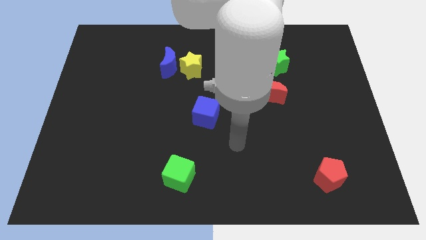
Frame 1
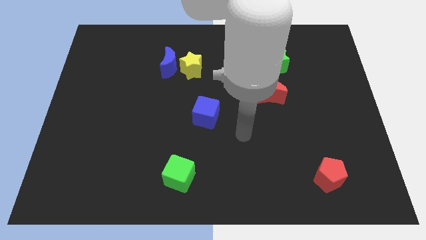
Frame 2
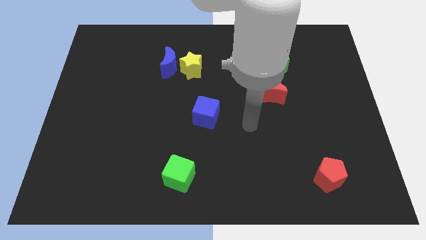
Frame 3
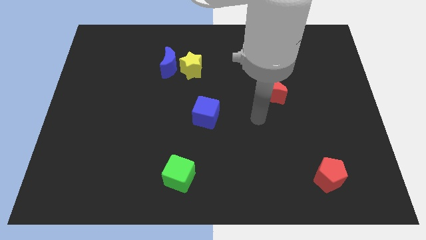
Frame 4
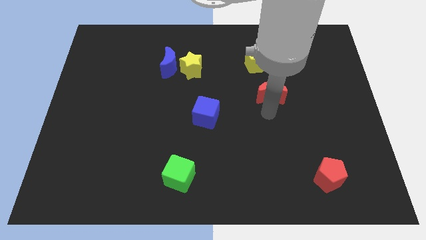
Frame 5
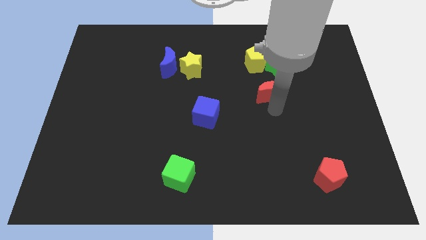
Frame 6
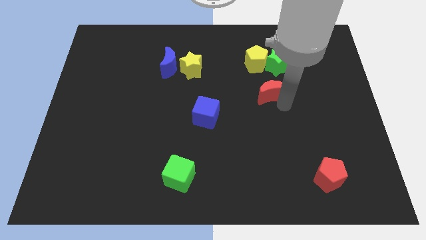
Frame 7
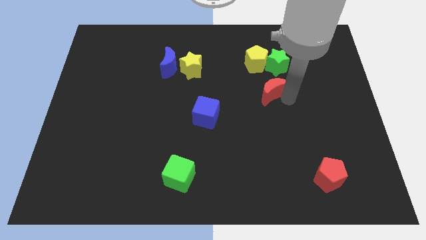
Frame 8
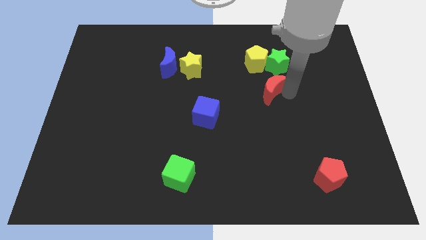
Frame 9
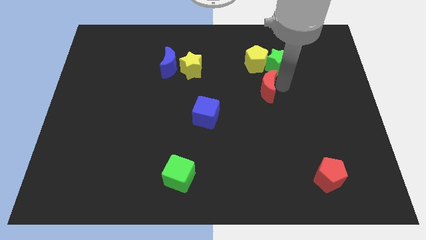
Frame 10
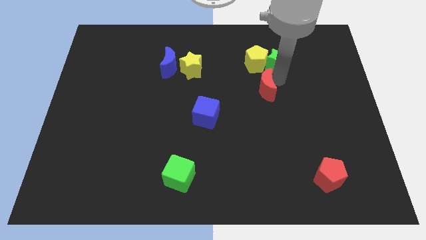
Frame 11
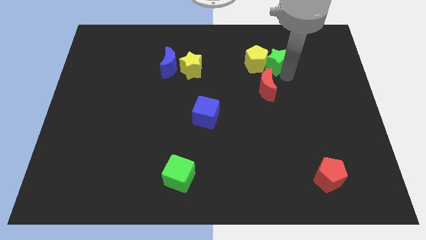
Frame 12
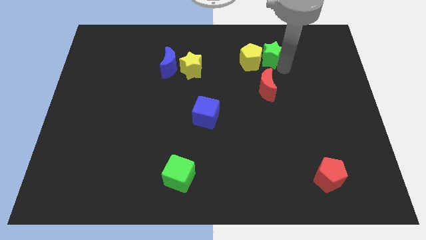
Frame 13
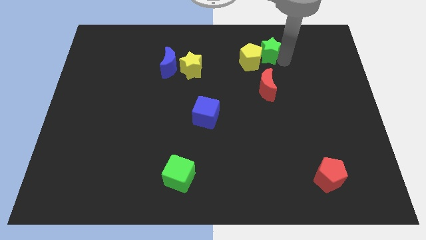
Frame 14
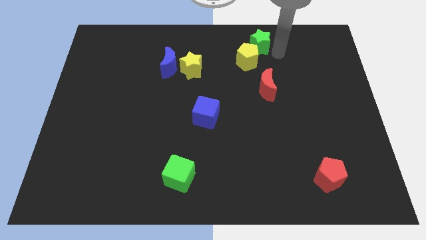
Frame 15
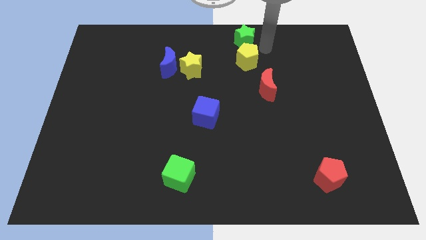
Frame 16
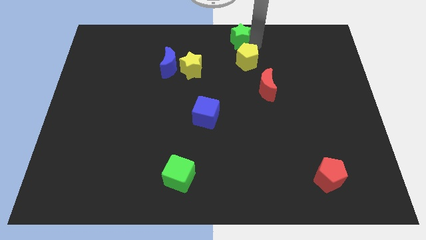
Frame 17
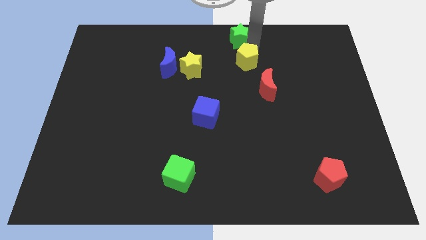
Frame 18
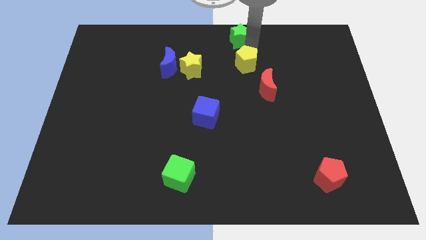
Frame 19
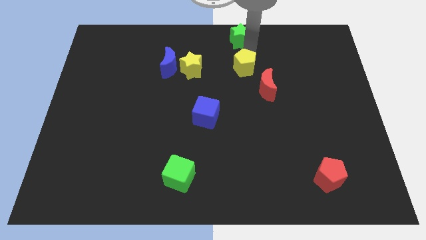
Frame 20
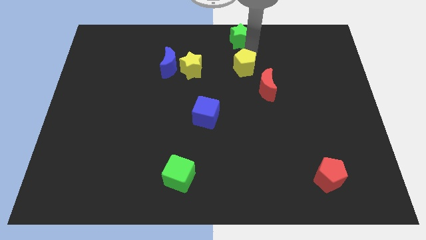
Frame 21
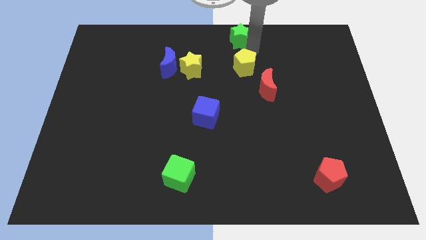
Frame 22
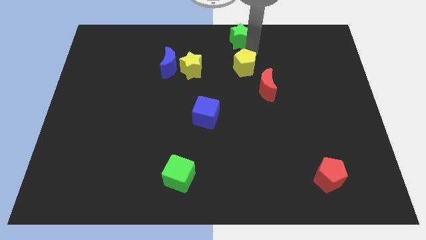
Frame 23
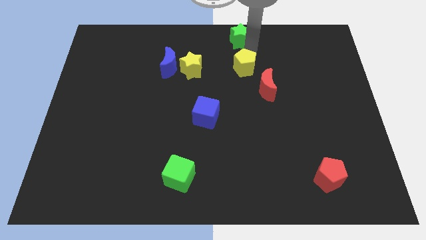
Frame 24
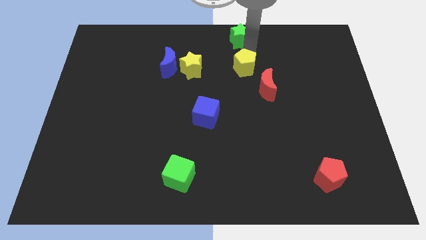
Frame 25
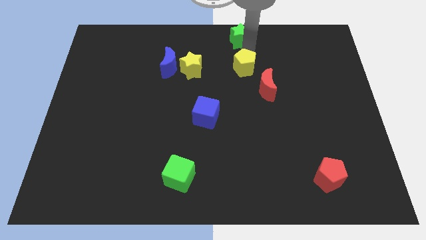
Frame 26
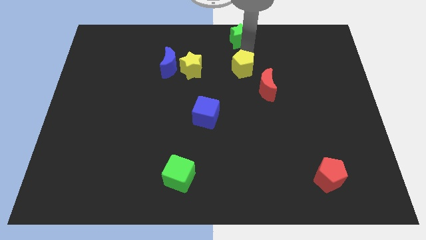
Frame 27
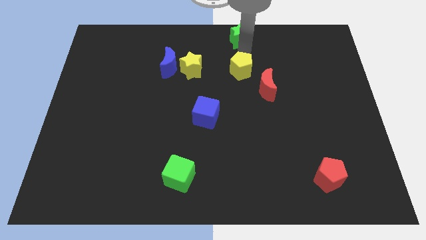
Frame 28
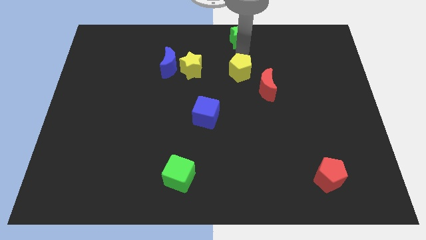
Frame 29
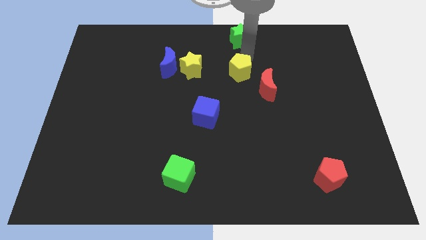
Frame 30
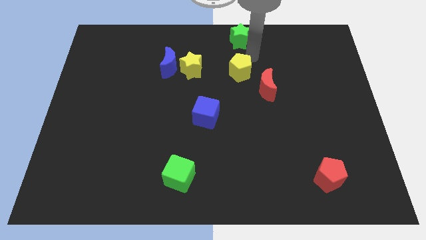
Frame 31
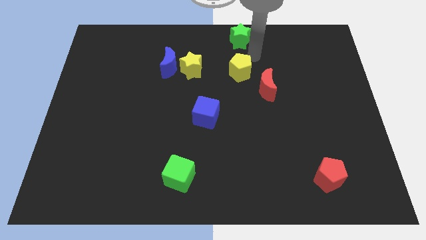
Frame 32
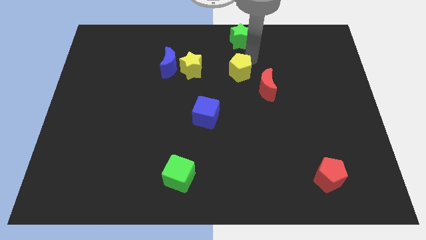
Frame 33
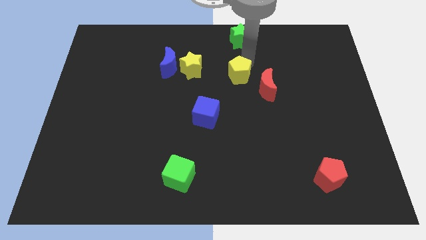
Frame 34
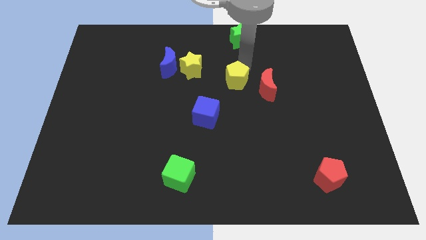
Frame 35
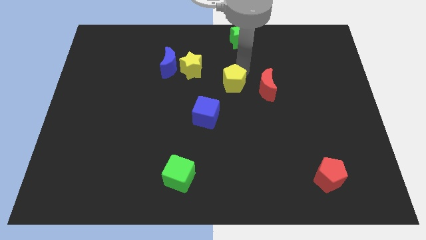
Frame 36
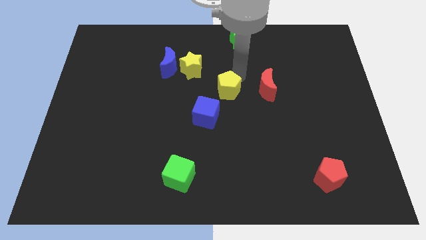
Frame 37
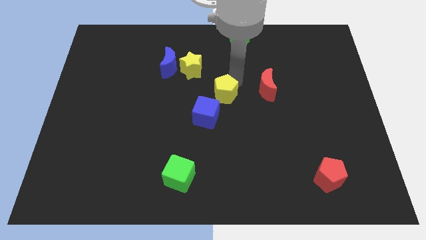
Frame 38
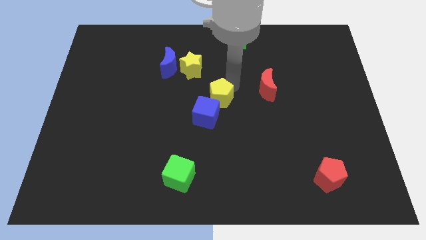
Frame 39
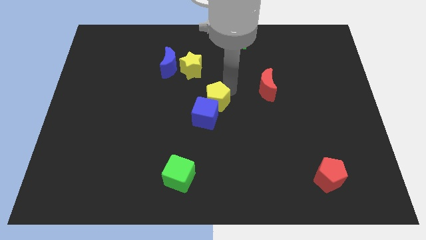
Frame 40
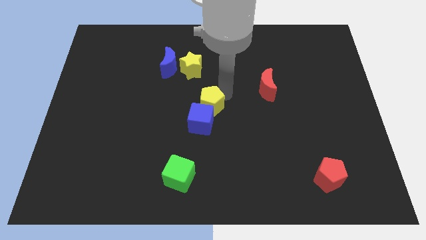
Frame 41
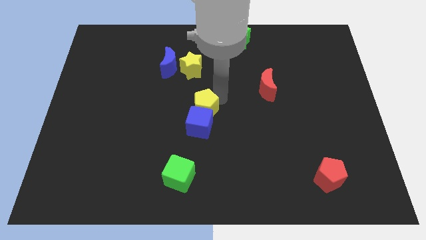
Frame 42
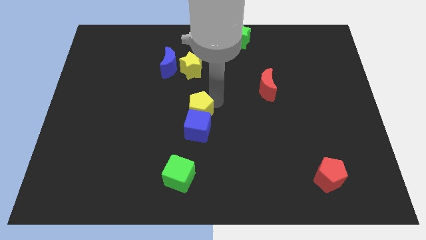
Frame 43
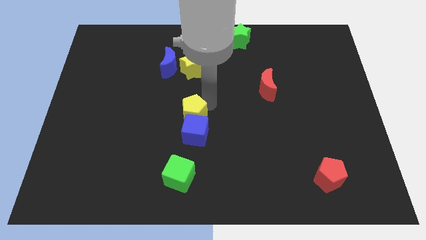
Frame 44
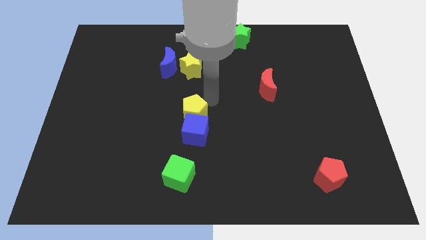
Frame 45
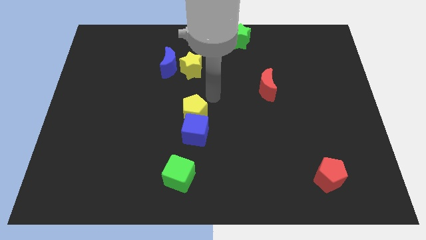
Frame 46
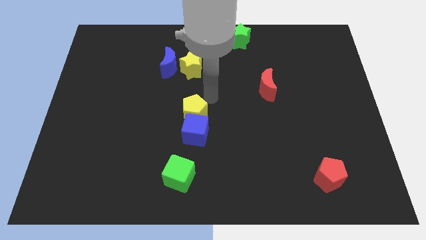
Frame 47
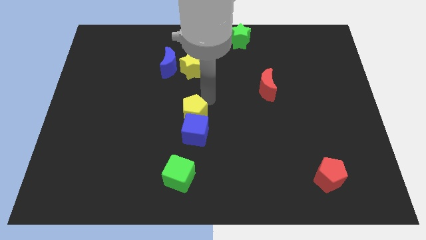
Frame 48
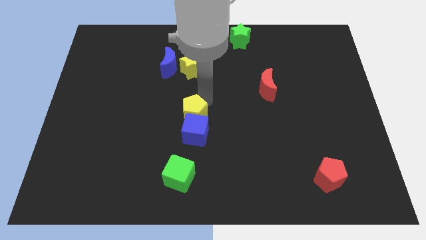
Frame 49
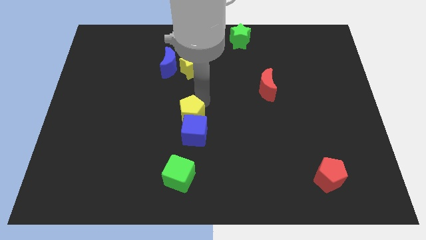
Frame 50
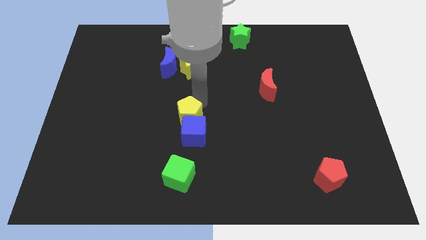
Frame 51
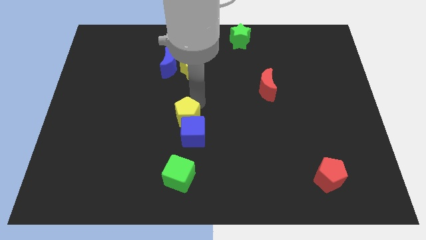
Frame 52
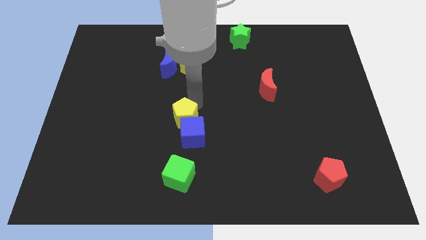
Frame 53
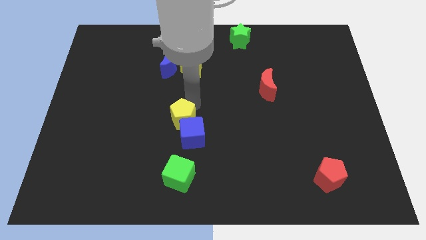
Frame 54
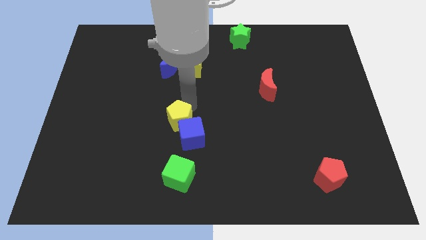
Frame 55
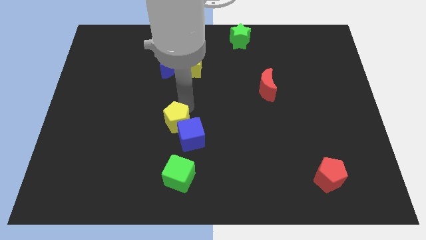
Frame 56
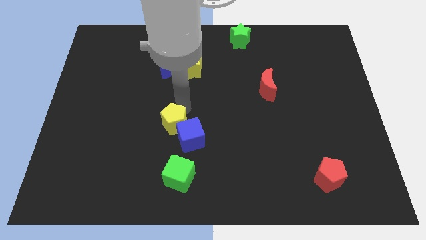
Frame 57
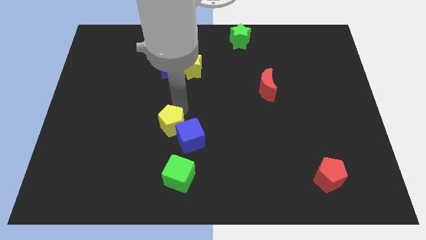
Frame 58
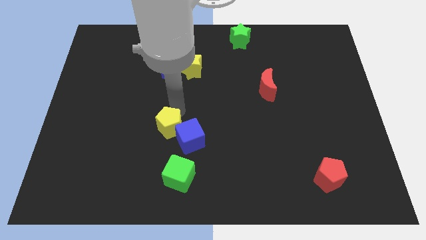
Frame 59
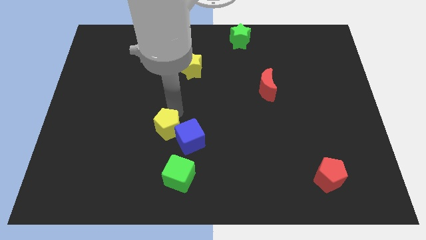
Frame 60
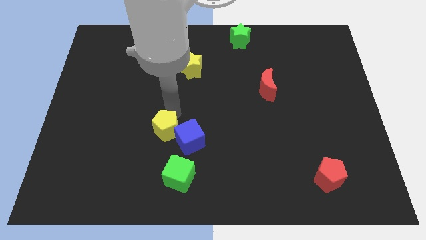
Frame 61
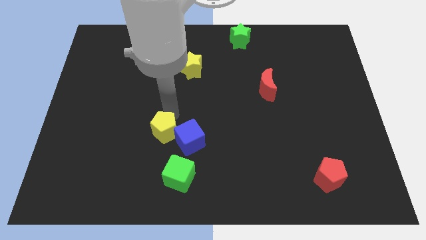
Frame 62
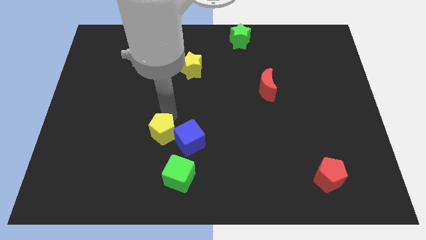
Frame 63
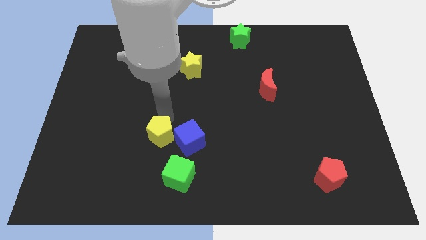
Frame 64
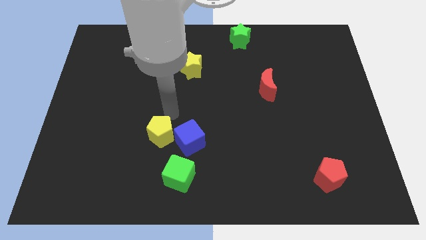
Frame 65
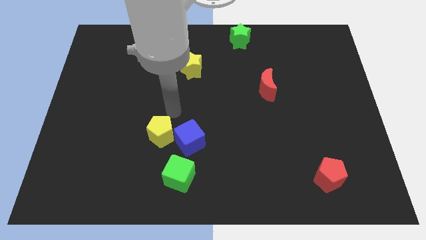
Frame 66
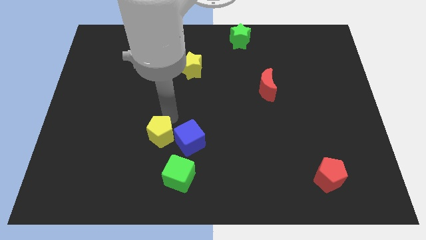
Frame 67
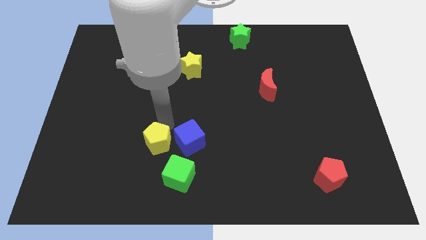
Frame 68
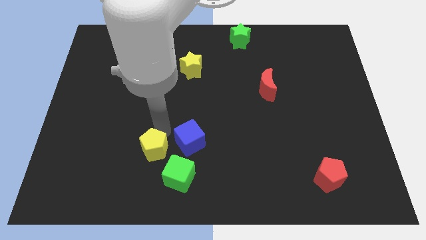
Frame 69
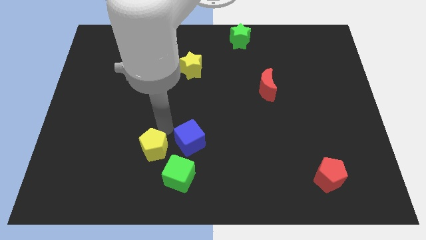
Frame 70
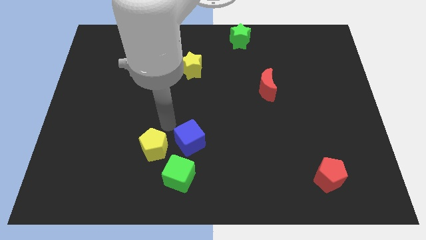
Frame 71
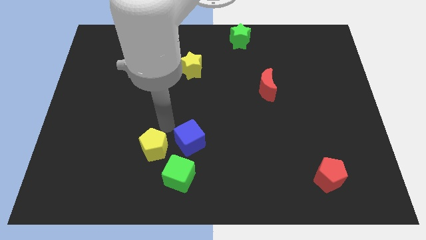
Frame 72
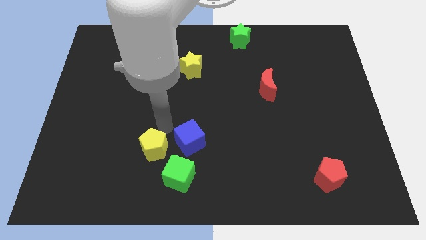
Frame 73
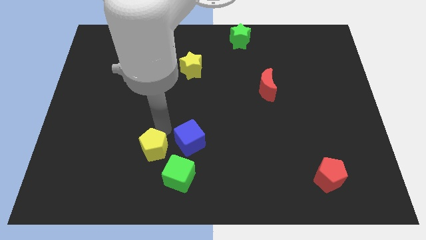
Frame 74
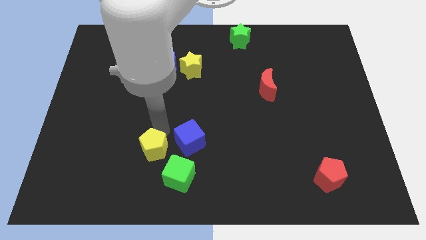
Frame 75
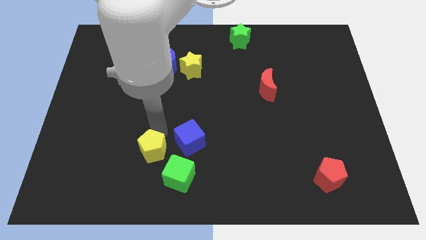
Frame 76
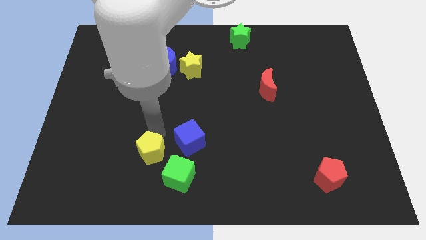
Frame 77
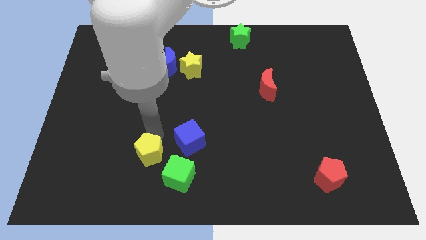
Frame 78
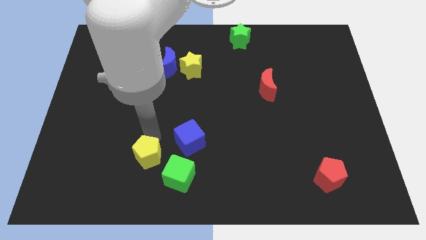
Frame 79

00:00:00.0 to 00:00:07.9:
push the yellow pentagon just left of the green cube
